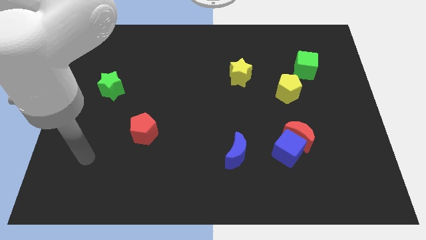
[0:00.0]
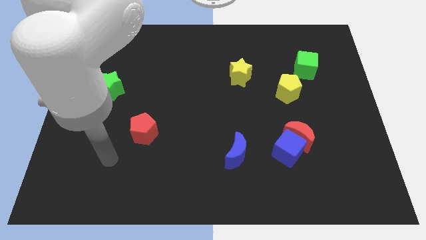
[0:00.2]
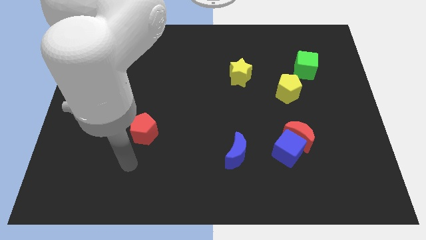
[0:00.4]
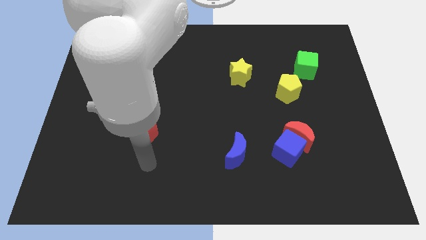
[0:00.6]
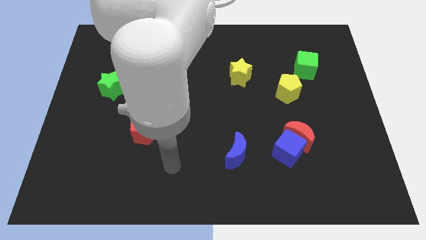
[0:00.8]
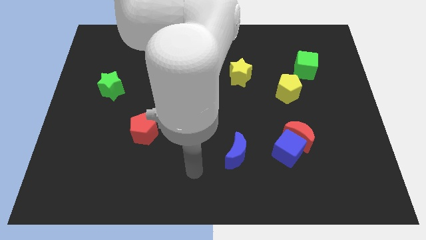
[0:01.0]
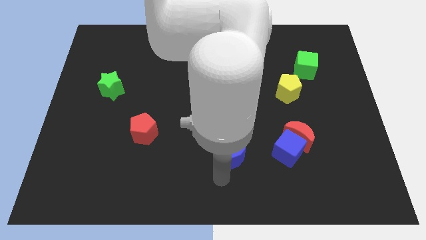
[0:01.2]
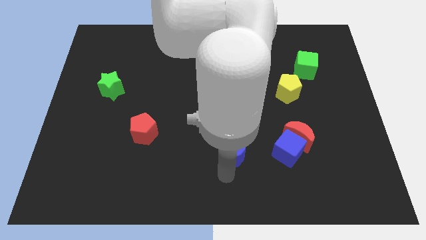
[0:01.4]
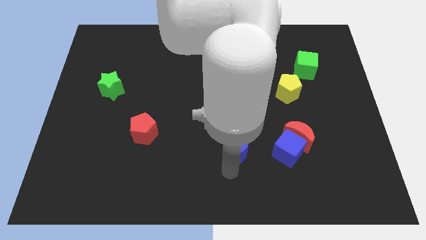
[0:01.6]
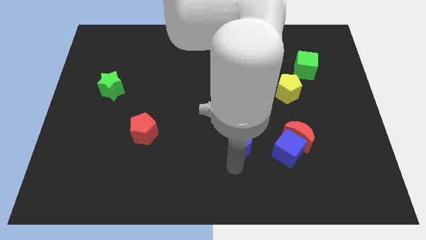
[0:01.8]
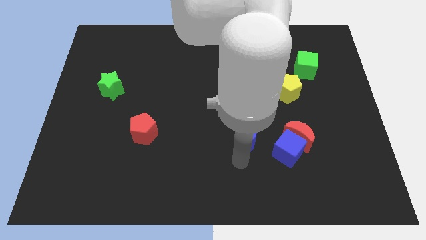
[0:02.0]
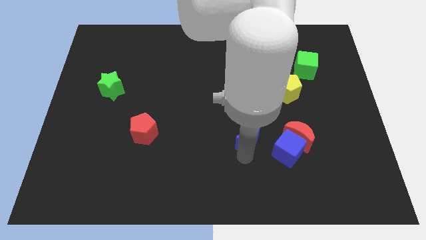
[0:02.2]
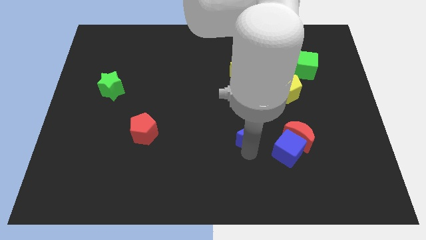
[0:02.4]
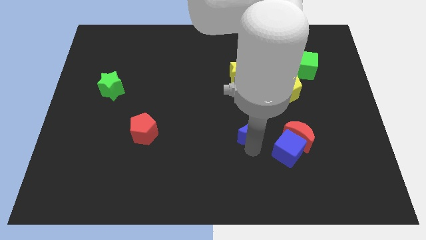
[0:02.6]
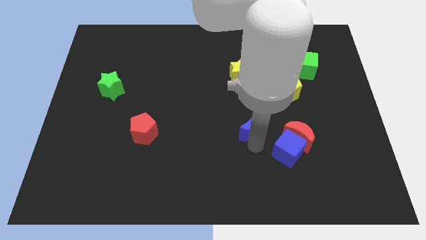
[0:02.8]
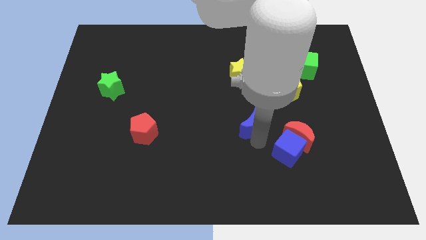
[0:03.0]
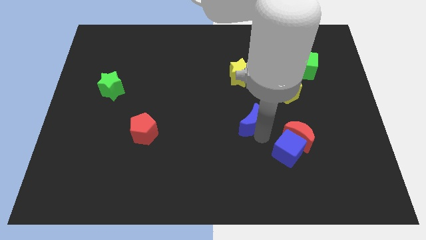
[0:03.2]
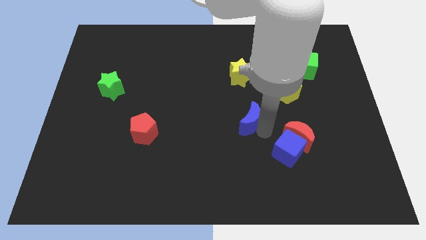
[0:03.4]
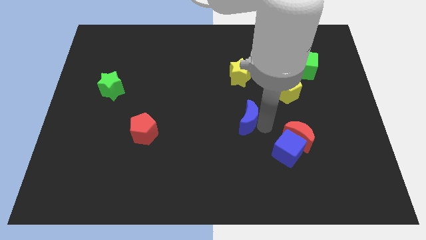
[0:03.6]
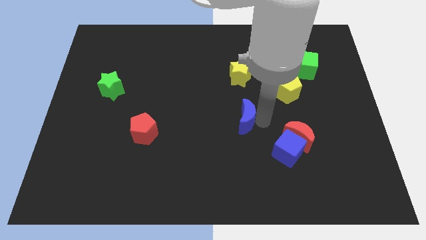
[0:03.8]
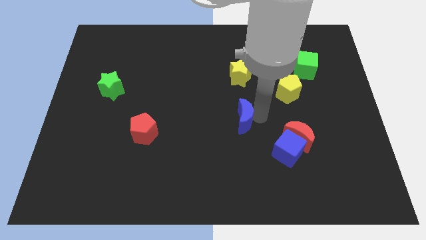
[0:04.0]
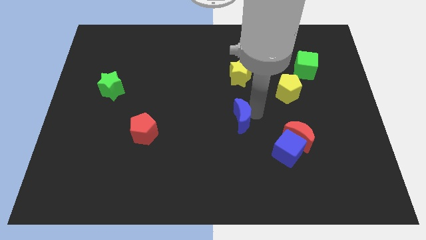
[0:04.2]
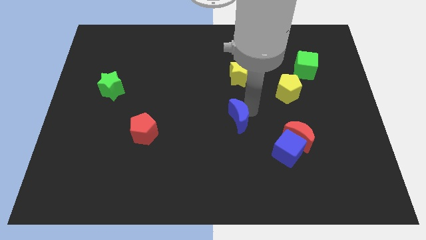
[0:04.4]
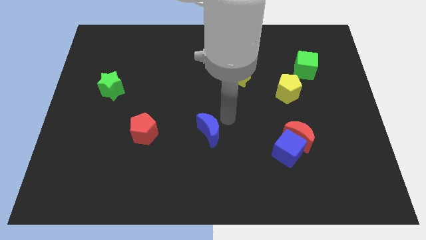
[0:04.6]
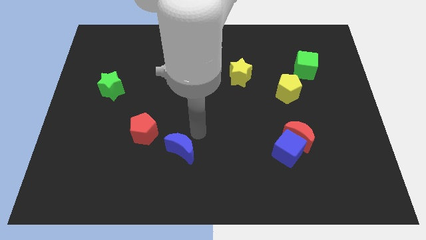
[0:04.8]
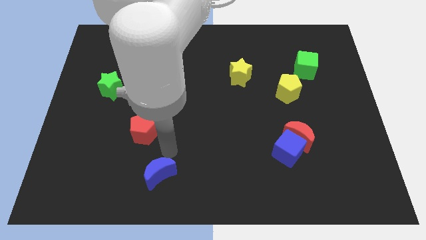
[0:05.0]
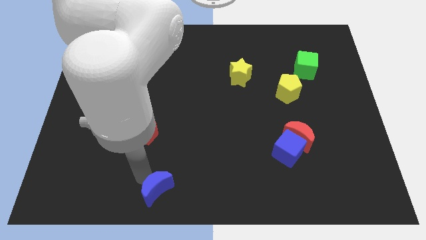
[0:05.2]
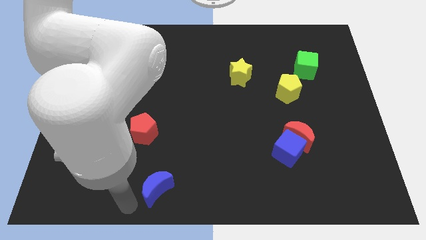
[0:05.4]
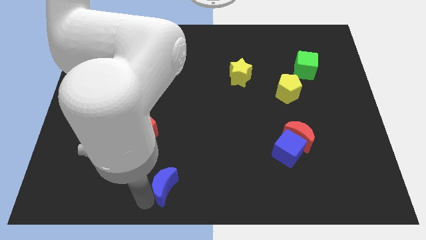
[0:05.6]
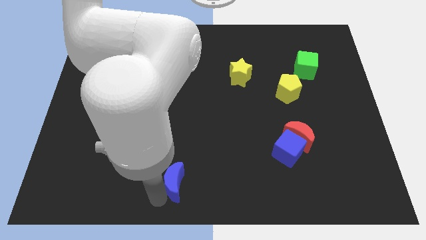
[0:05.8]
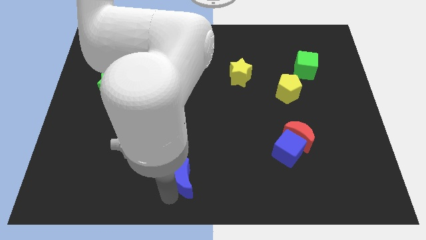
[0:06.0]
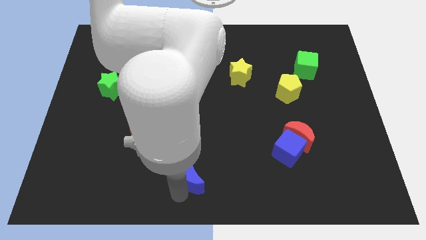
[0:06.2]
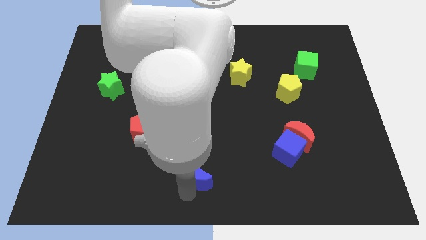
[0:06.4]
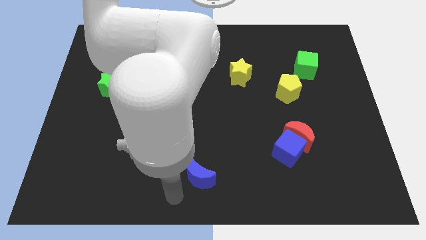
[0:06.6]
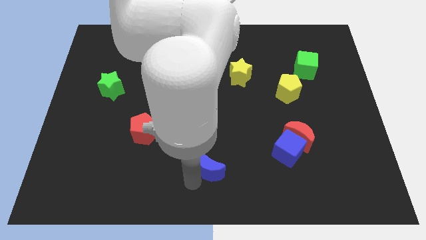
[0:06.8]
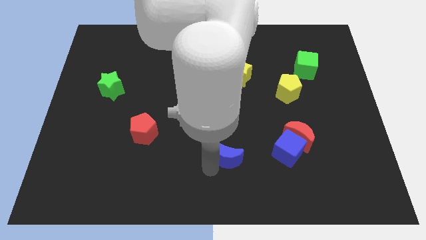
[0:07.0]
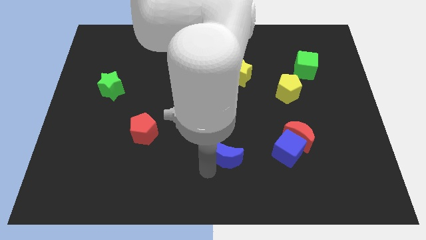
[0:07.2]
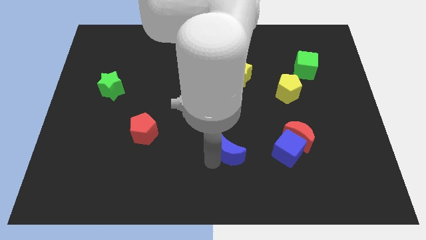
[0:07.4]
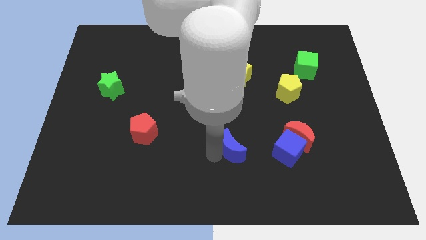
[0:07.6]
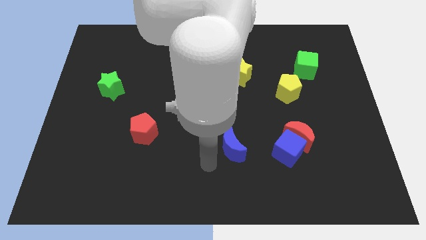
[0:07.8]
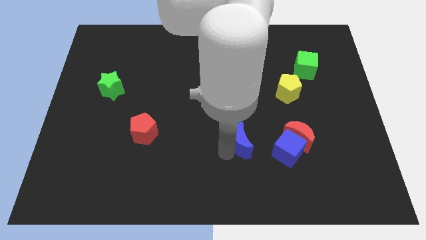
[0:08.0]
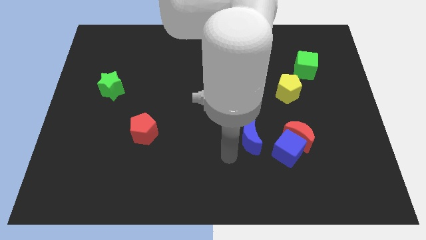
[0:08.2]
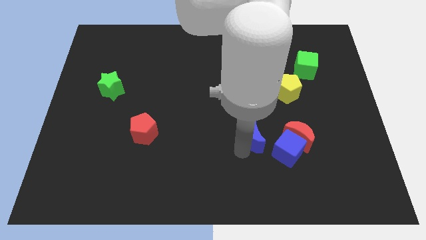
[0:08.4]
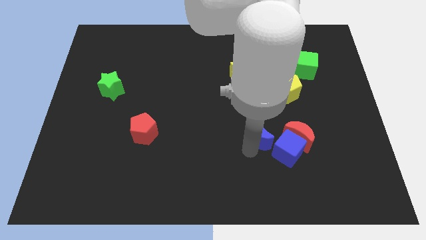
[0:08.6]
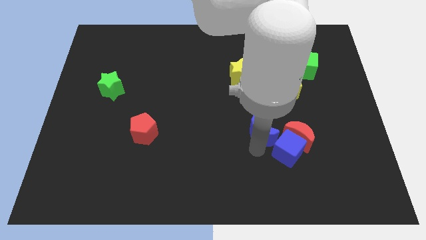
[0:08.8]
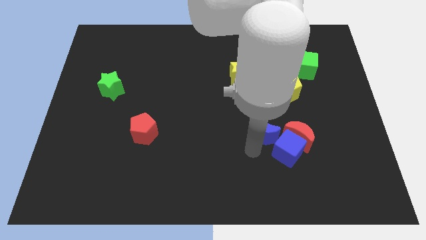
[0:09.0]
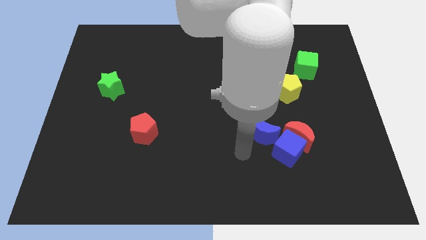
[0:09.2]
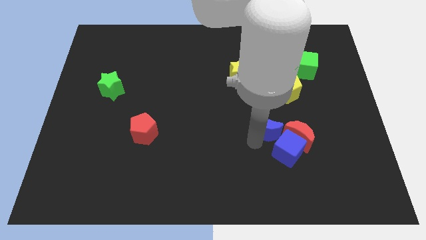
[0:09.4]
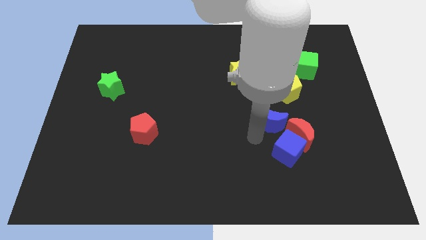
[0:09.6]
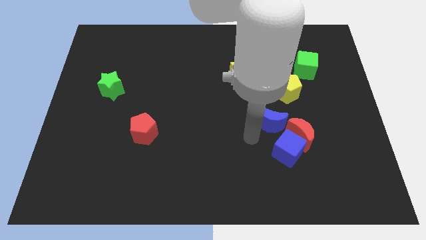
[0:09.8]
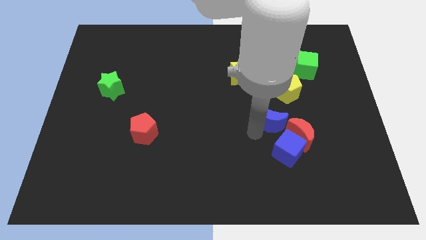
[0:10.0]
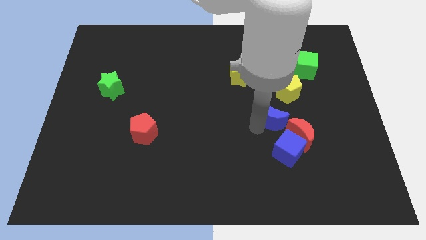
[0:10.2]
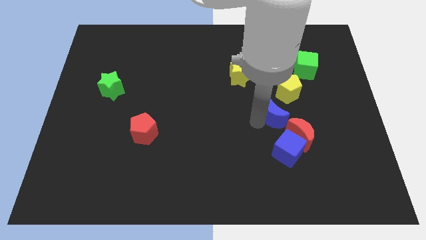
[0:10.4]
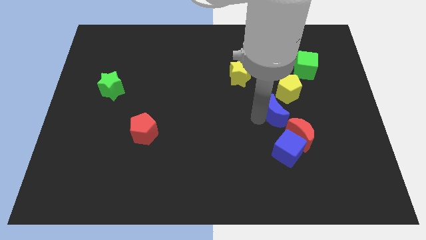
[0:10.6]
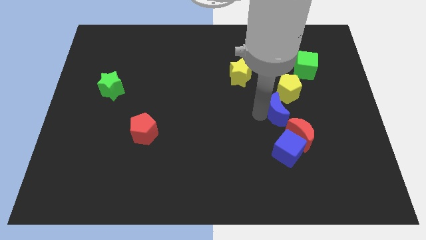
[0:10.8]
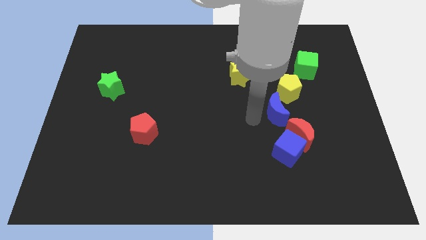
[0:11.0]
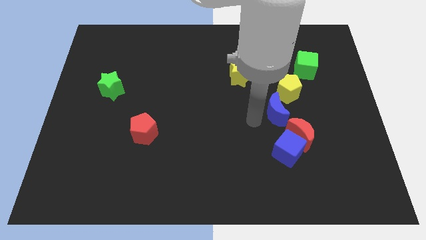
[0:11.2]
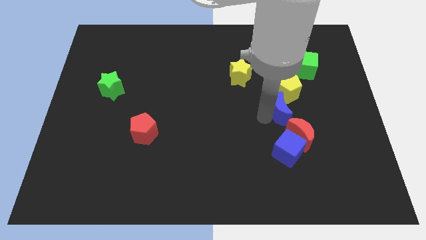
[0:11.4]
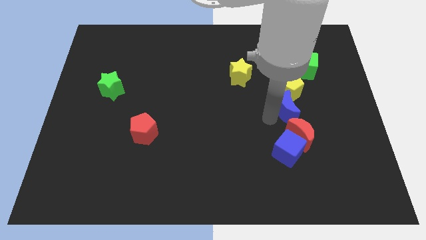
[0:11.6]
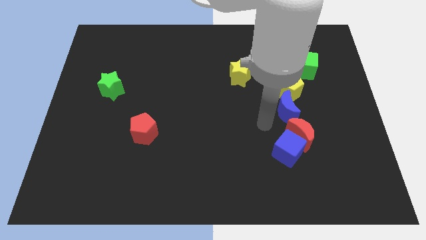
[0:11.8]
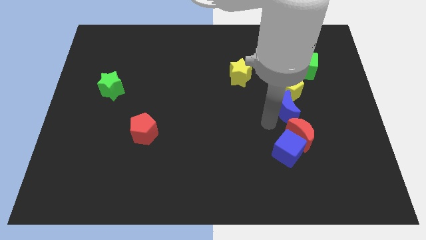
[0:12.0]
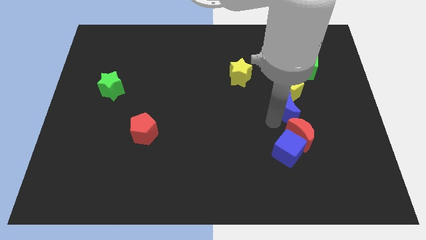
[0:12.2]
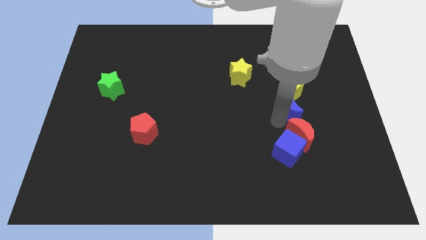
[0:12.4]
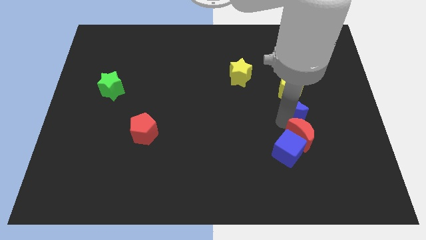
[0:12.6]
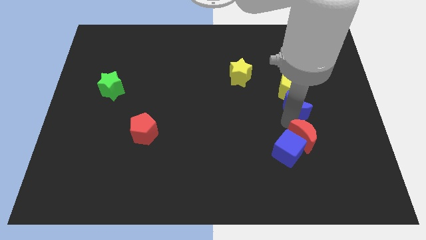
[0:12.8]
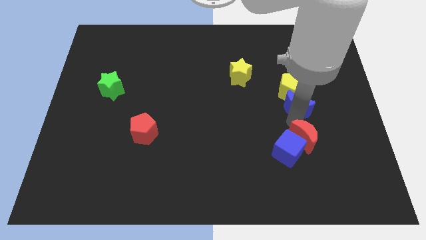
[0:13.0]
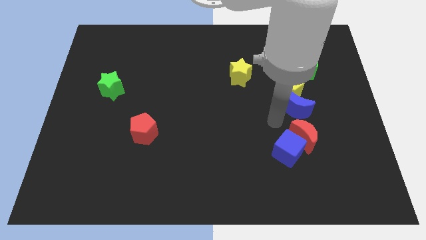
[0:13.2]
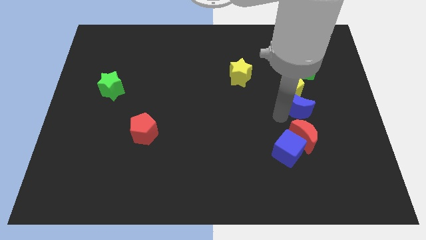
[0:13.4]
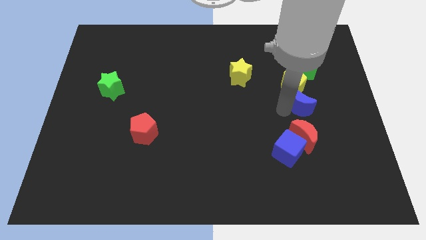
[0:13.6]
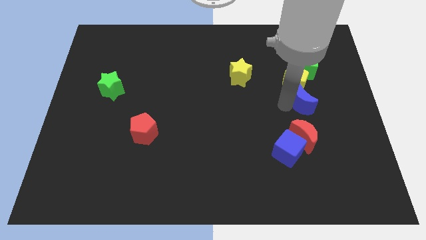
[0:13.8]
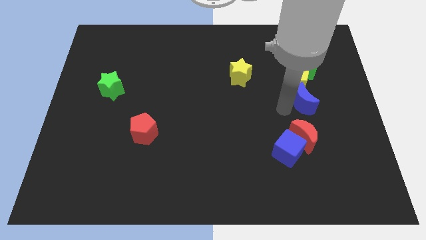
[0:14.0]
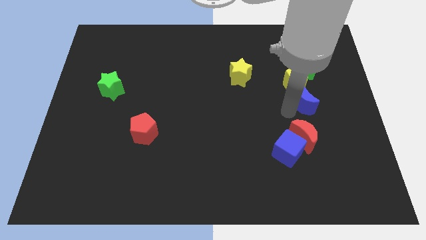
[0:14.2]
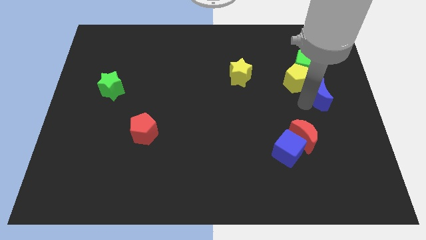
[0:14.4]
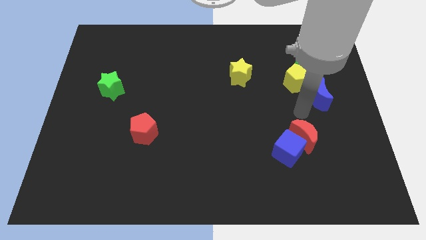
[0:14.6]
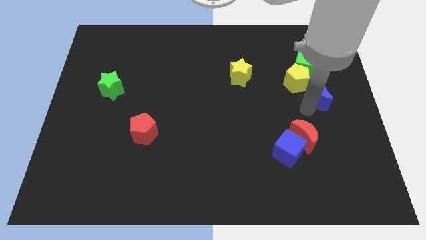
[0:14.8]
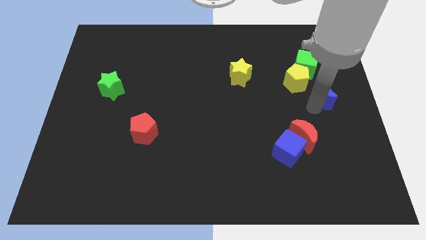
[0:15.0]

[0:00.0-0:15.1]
move the blue moon to the right side of the yellow pentagon
